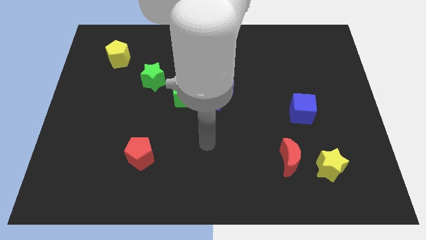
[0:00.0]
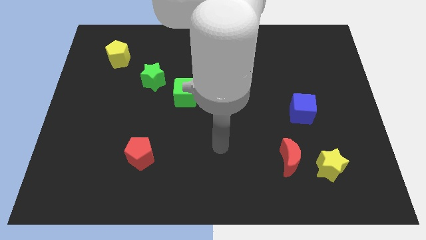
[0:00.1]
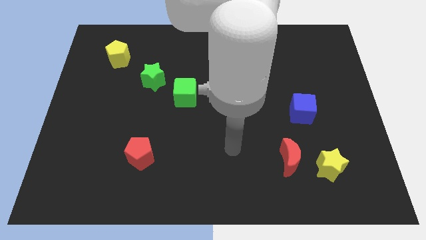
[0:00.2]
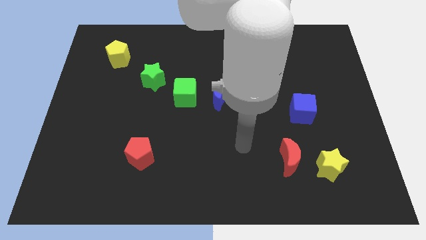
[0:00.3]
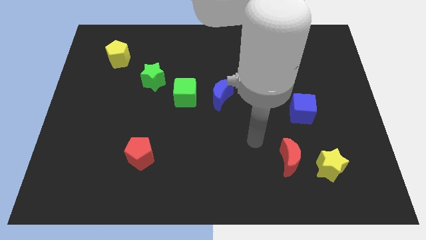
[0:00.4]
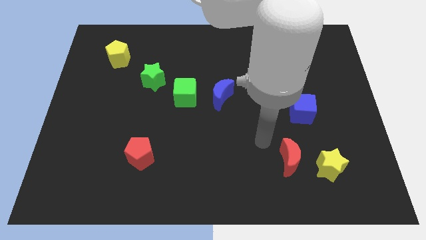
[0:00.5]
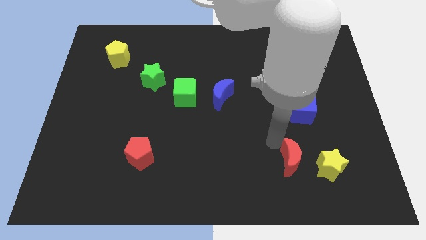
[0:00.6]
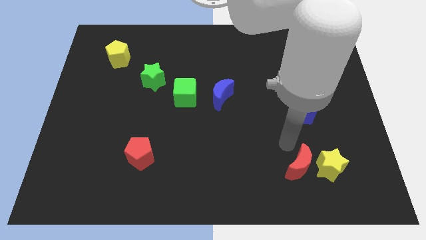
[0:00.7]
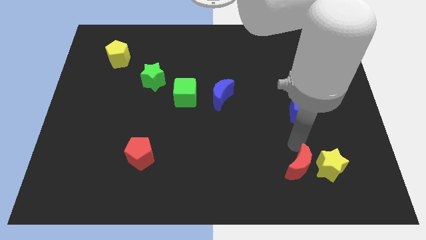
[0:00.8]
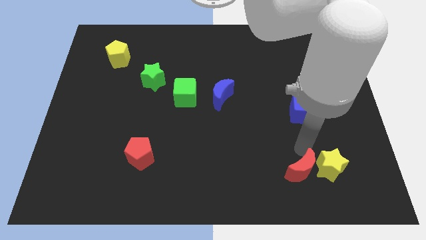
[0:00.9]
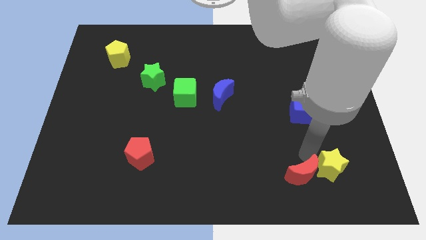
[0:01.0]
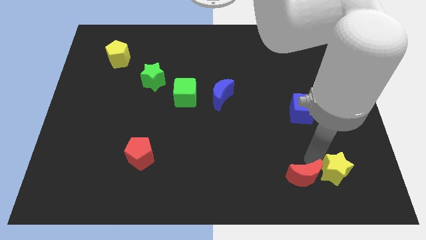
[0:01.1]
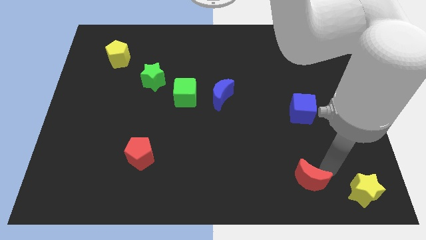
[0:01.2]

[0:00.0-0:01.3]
separate the red moon from the yellow star

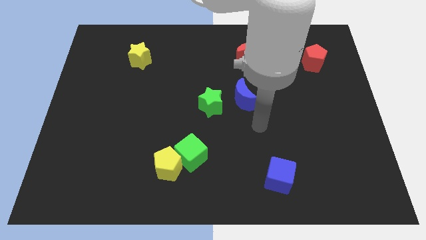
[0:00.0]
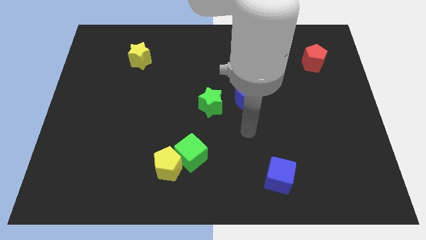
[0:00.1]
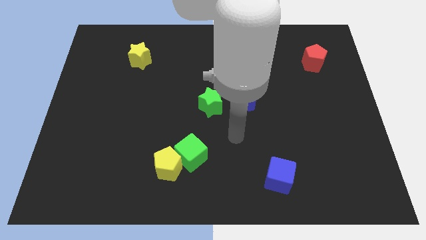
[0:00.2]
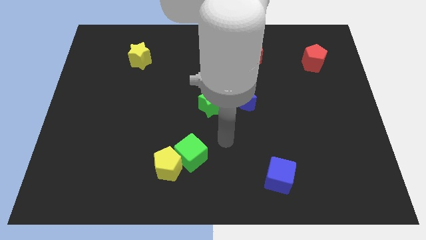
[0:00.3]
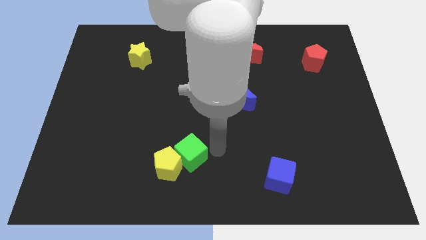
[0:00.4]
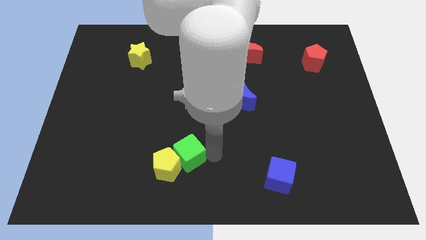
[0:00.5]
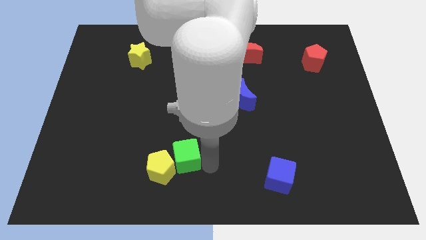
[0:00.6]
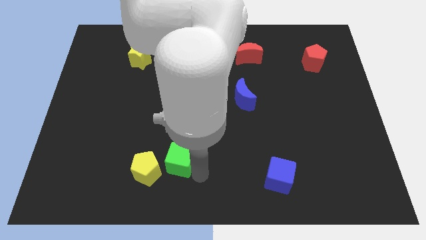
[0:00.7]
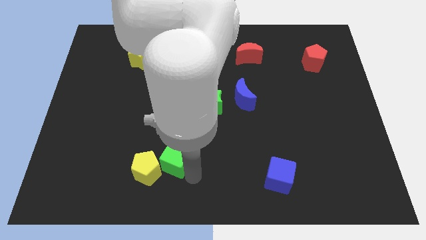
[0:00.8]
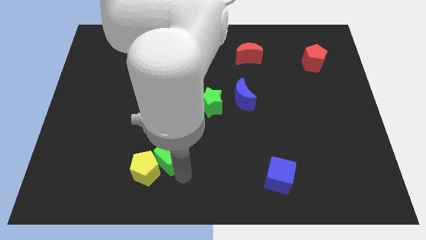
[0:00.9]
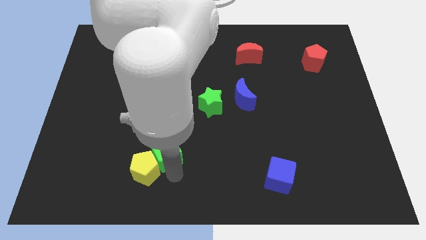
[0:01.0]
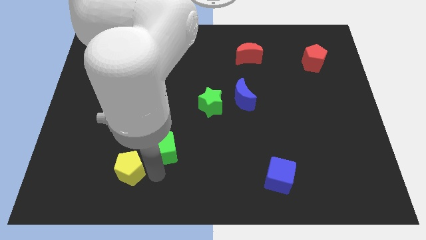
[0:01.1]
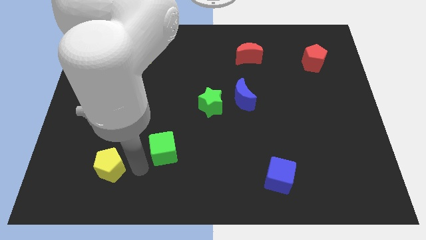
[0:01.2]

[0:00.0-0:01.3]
separate the green cube from the yellow pentagon

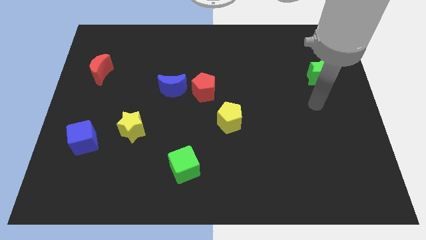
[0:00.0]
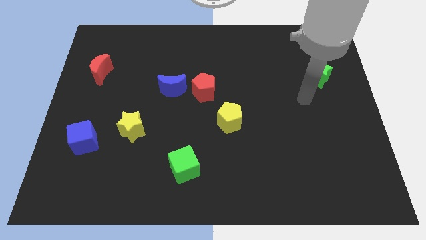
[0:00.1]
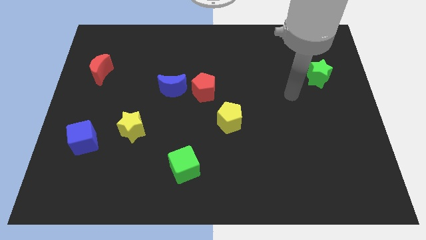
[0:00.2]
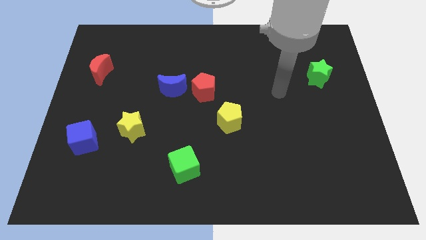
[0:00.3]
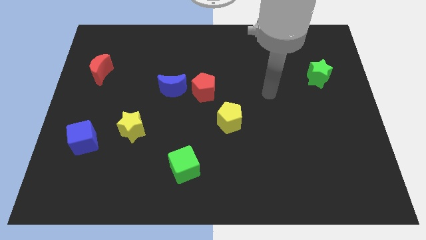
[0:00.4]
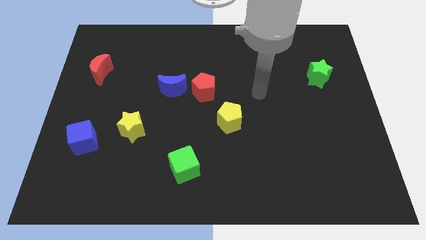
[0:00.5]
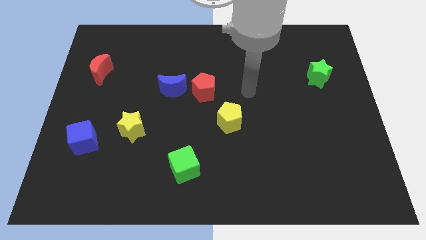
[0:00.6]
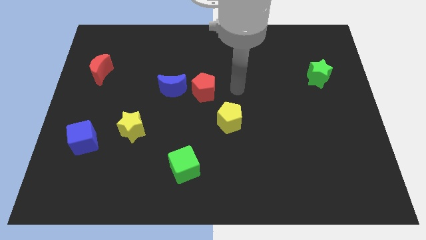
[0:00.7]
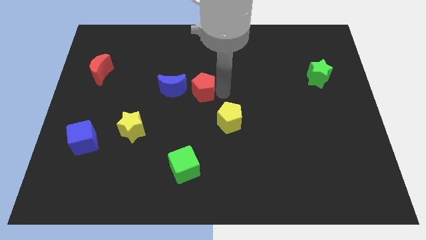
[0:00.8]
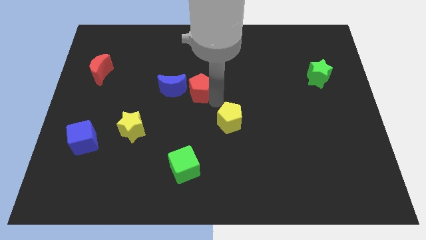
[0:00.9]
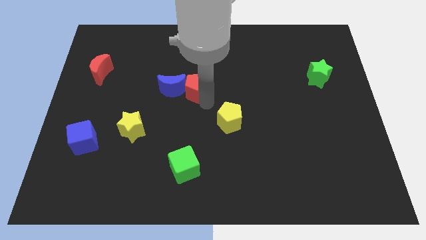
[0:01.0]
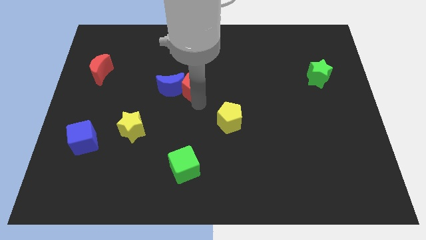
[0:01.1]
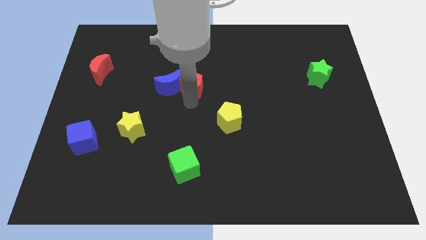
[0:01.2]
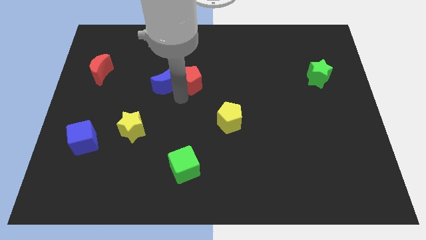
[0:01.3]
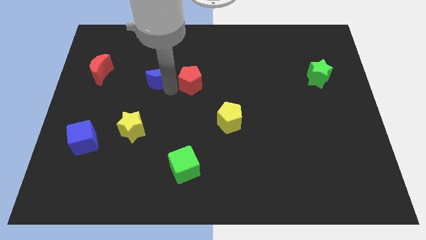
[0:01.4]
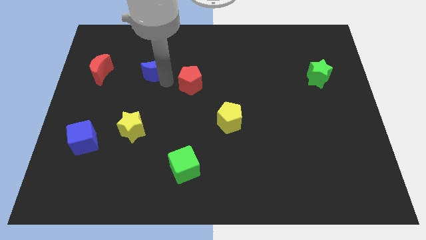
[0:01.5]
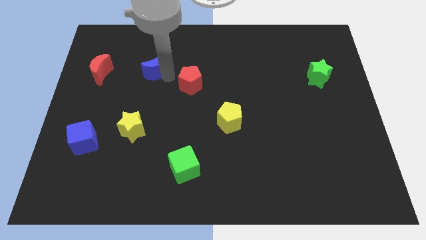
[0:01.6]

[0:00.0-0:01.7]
separate the red pentagon from the blue moon

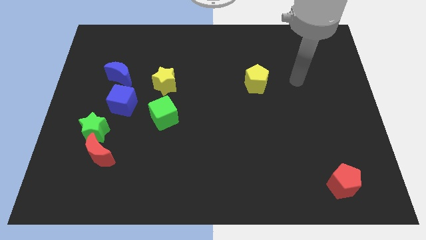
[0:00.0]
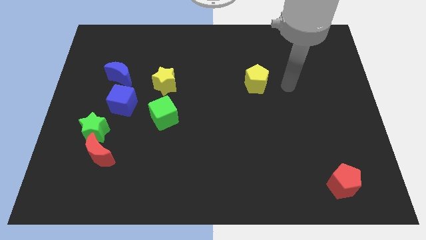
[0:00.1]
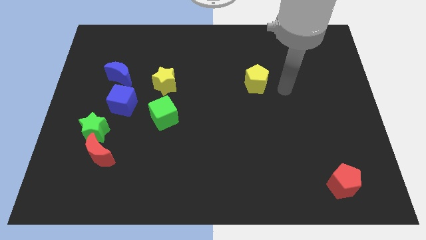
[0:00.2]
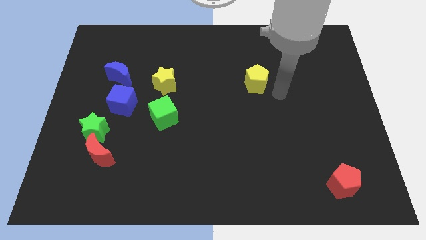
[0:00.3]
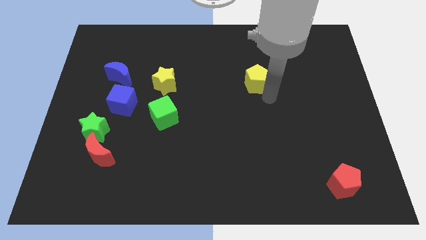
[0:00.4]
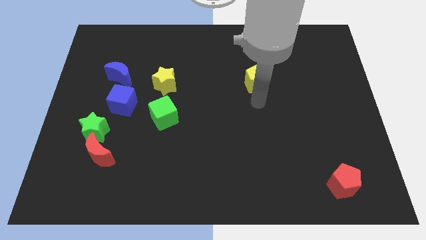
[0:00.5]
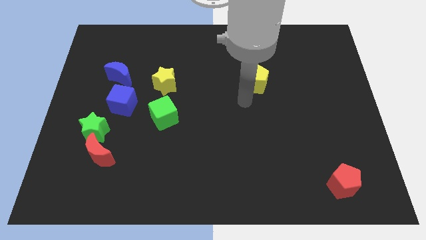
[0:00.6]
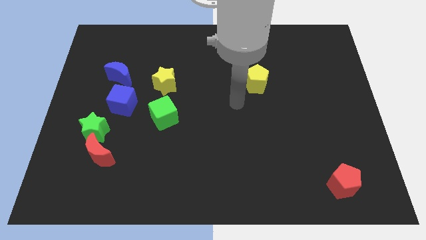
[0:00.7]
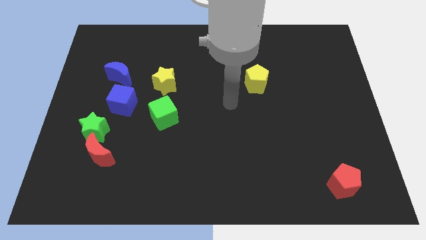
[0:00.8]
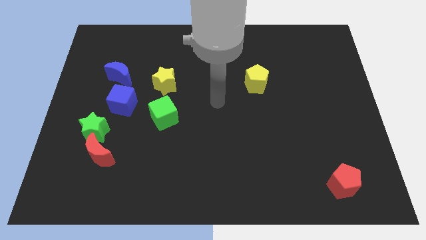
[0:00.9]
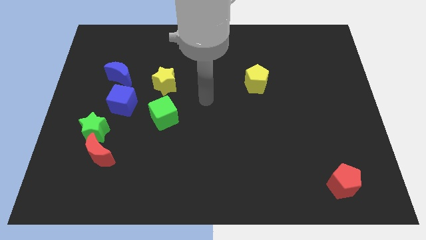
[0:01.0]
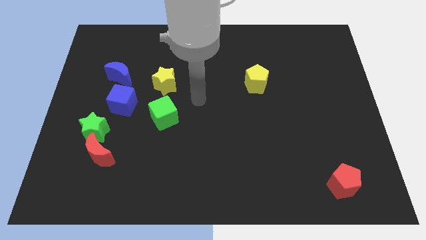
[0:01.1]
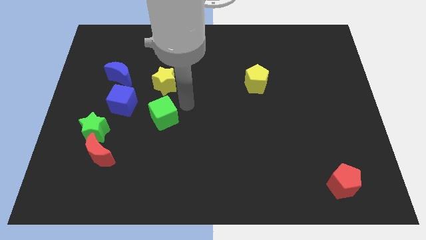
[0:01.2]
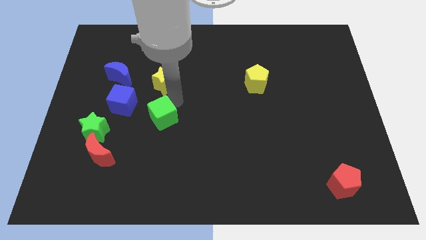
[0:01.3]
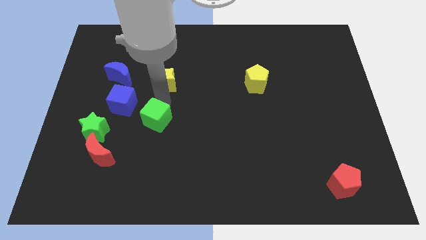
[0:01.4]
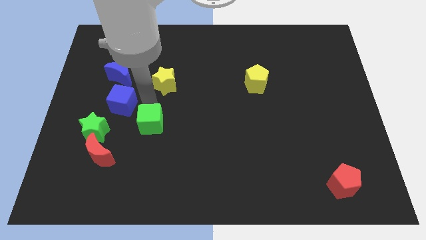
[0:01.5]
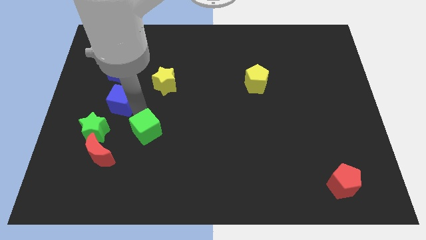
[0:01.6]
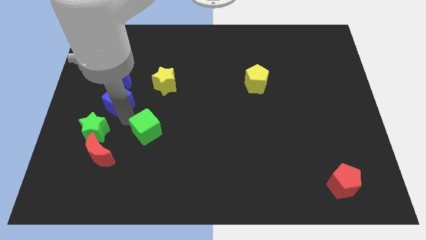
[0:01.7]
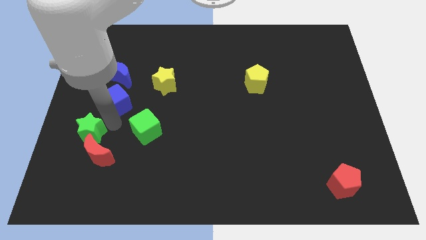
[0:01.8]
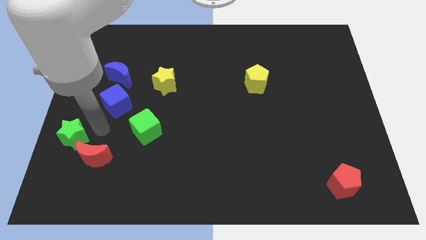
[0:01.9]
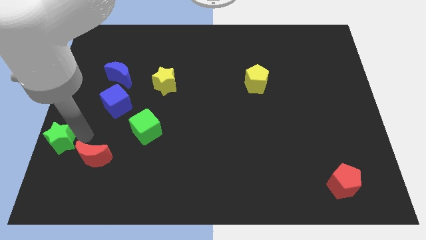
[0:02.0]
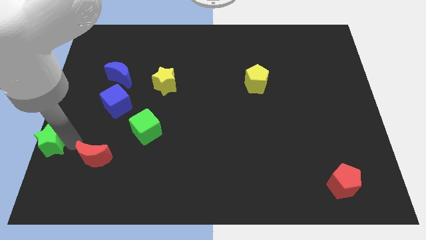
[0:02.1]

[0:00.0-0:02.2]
move the red moon away from the green star

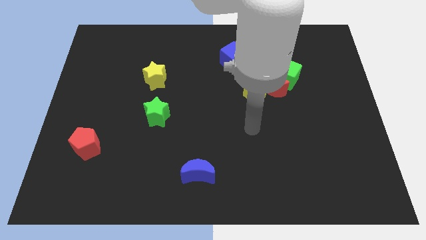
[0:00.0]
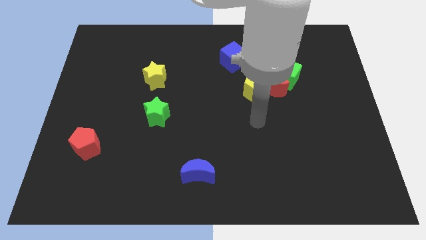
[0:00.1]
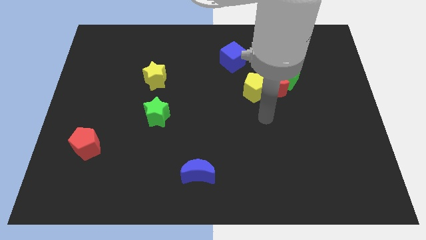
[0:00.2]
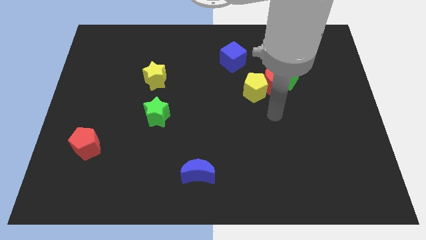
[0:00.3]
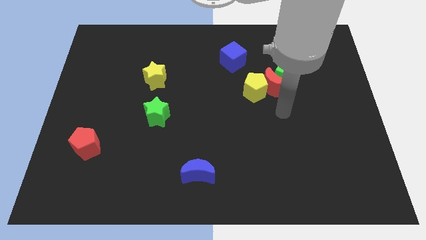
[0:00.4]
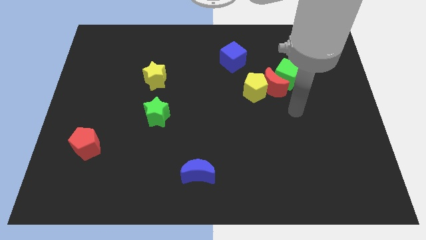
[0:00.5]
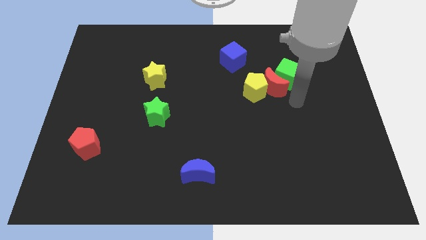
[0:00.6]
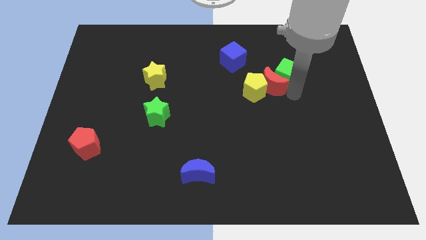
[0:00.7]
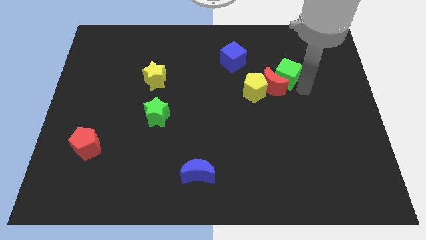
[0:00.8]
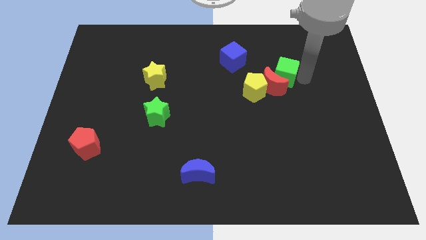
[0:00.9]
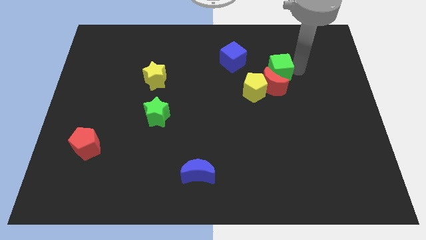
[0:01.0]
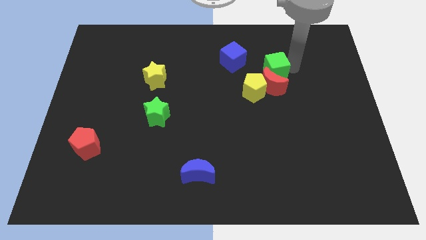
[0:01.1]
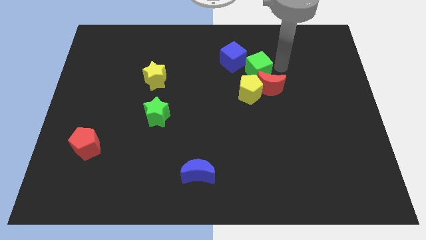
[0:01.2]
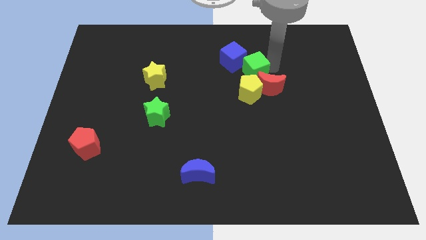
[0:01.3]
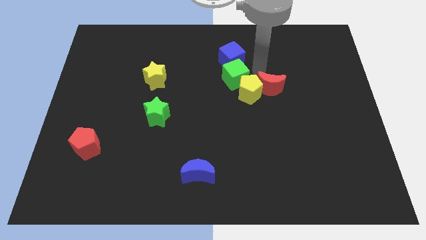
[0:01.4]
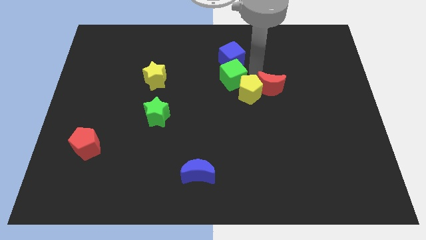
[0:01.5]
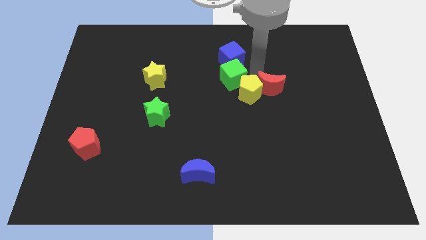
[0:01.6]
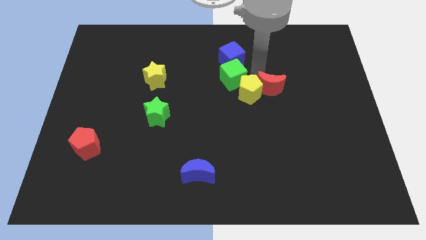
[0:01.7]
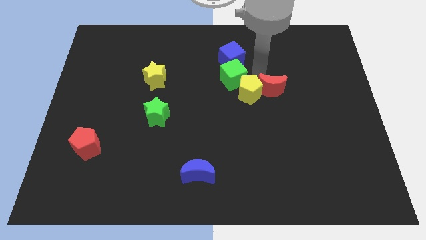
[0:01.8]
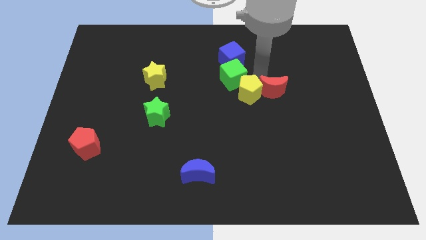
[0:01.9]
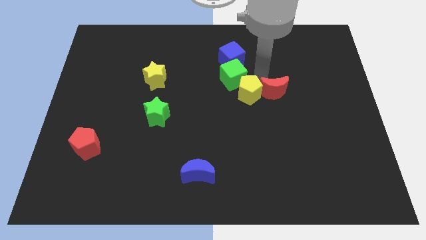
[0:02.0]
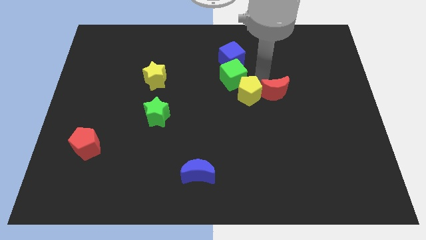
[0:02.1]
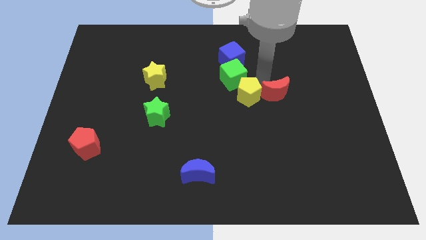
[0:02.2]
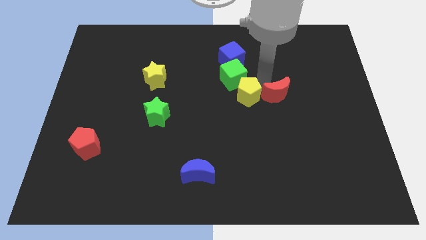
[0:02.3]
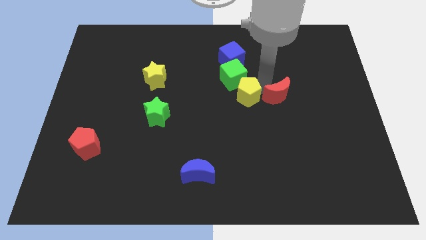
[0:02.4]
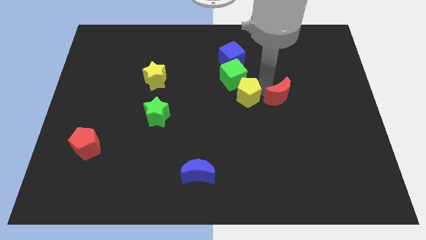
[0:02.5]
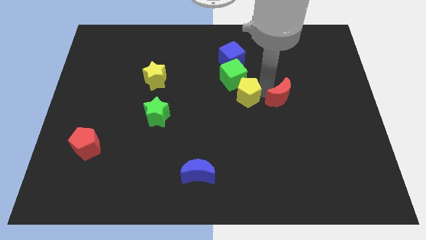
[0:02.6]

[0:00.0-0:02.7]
move the red moon away from the yellow pentagon and green cube
